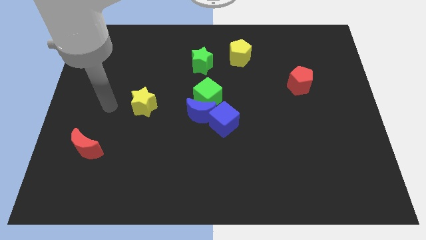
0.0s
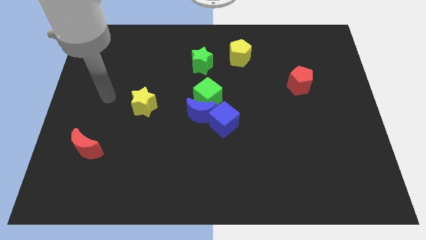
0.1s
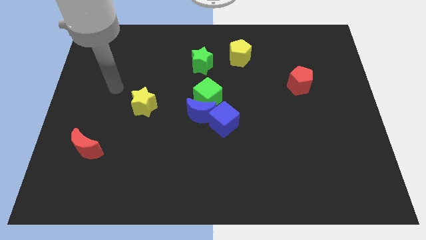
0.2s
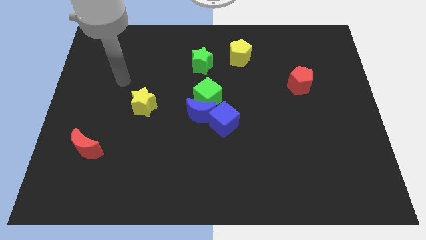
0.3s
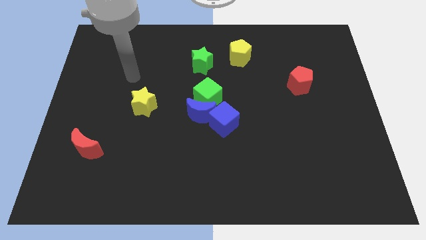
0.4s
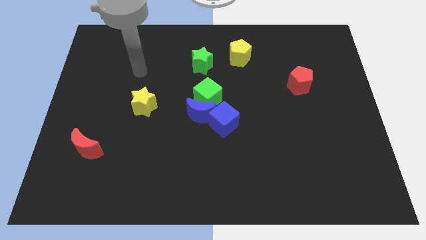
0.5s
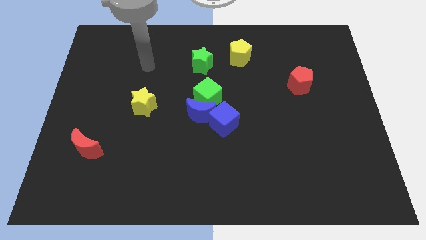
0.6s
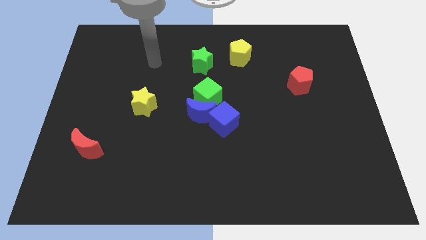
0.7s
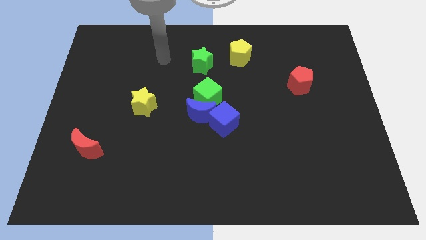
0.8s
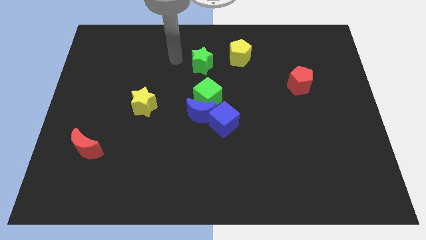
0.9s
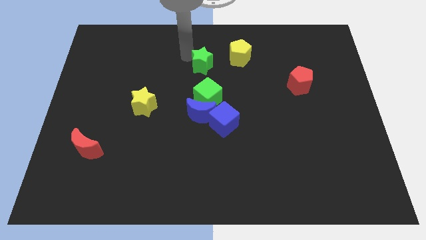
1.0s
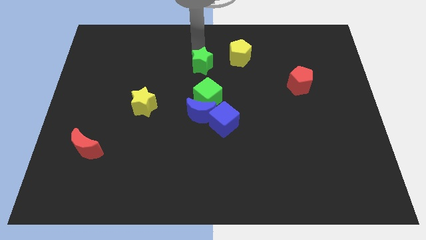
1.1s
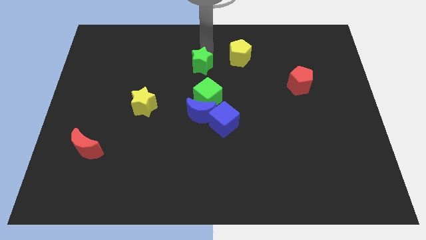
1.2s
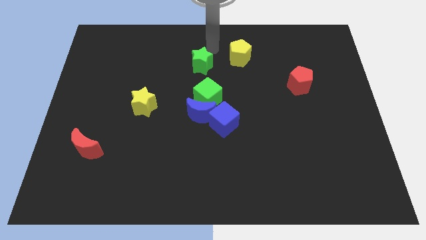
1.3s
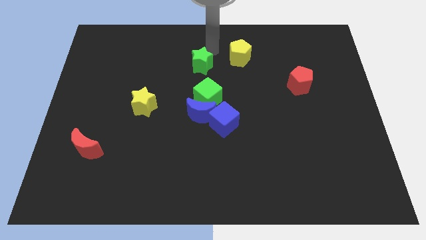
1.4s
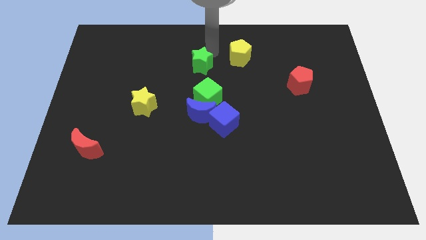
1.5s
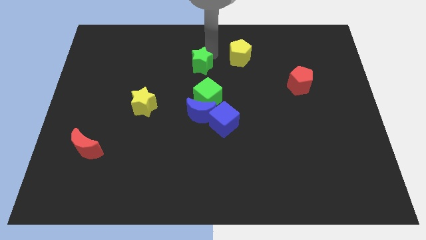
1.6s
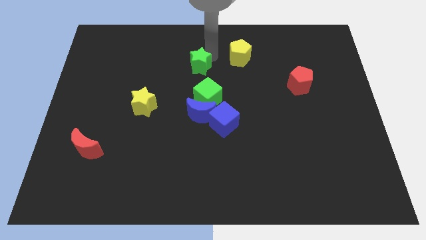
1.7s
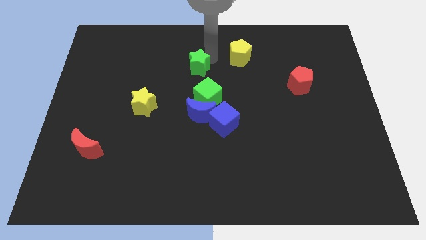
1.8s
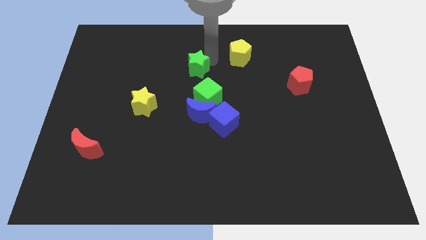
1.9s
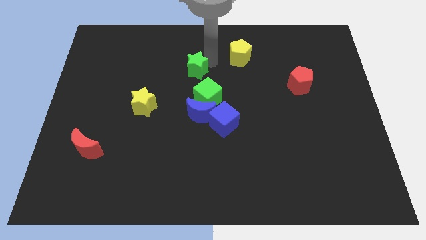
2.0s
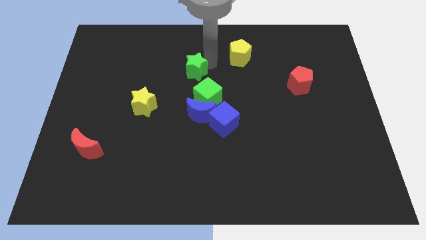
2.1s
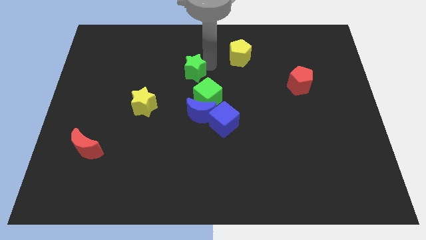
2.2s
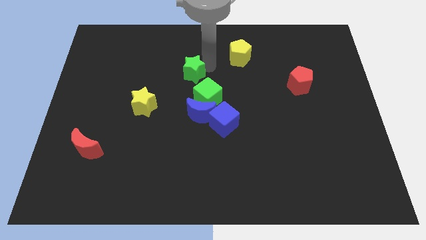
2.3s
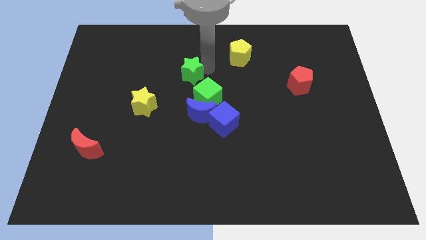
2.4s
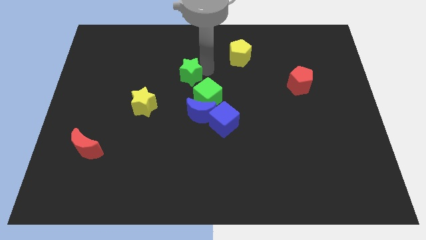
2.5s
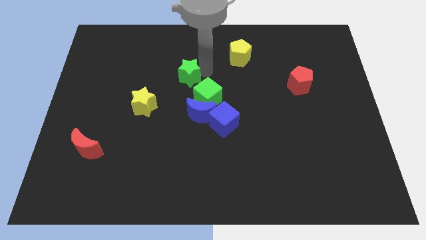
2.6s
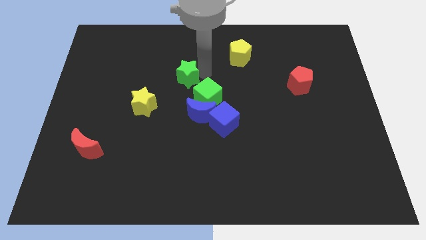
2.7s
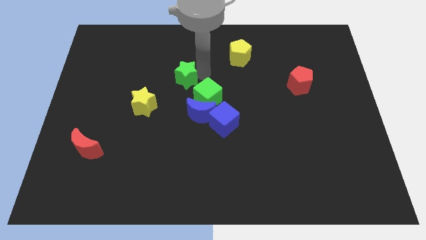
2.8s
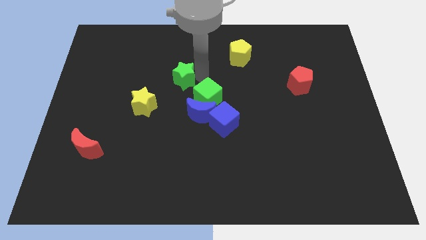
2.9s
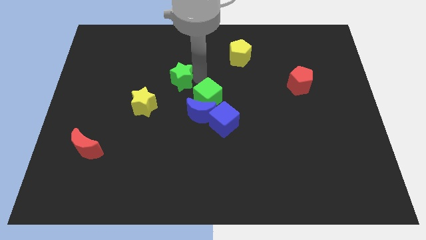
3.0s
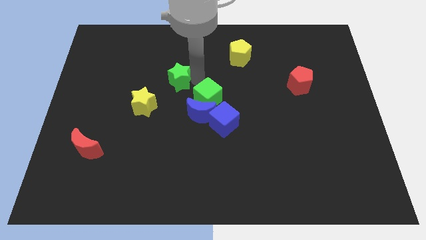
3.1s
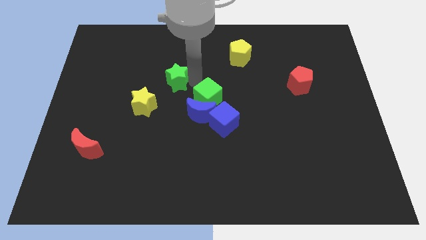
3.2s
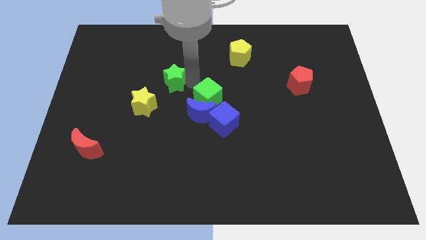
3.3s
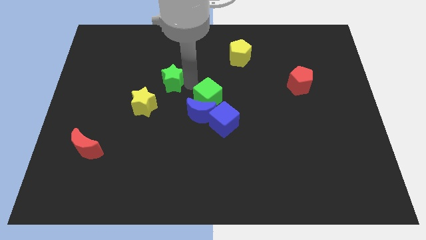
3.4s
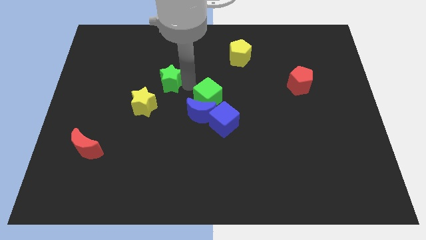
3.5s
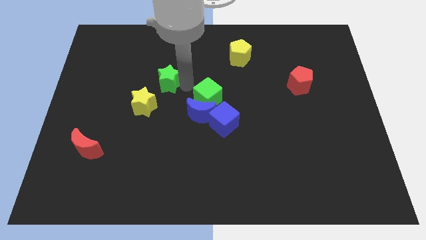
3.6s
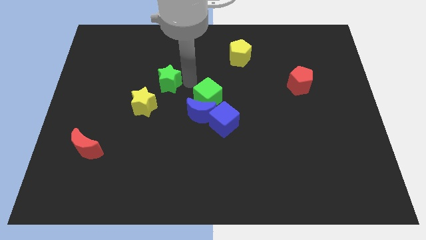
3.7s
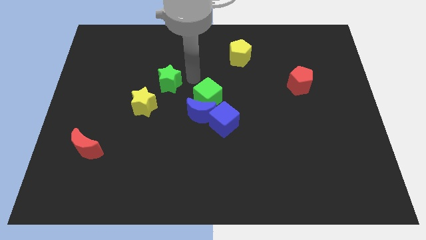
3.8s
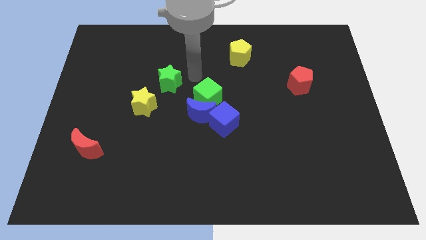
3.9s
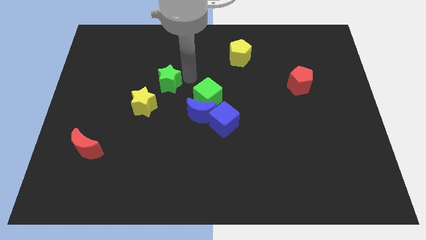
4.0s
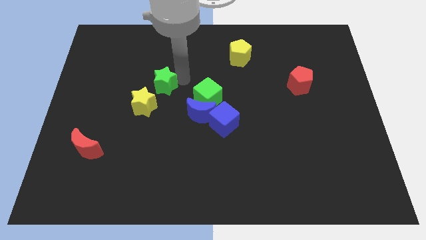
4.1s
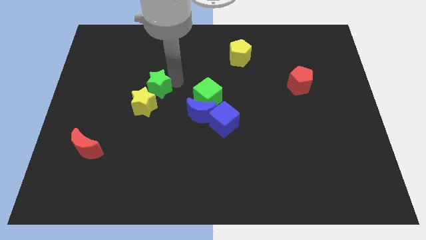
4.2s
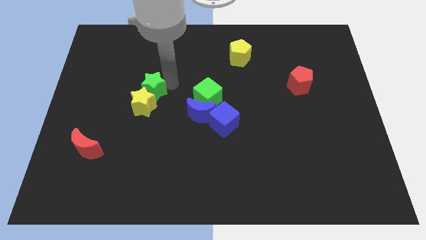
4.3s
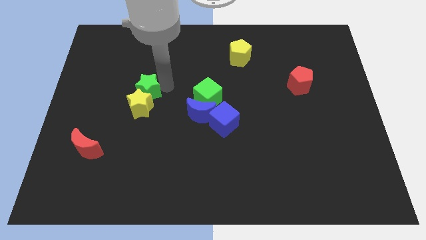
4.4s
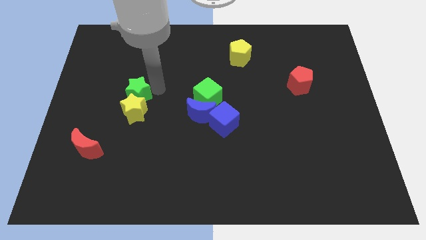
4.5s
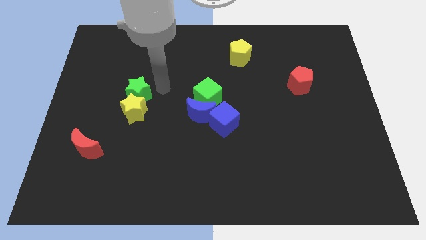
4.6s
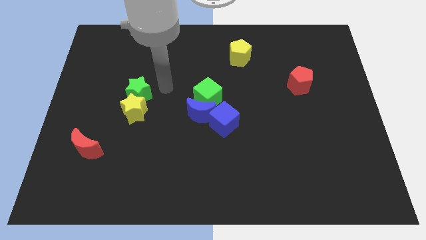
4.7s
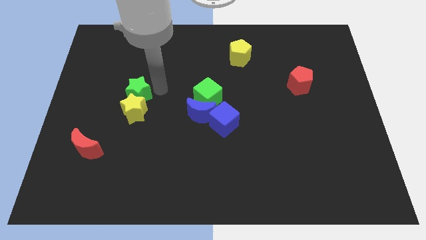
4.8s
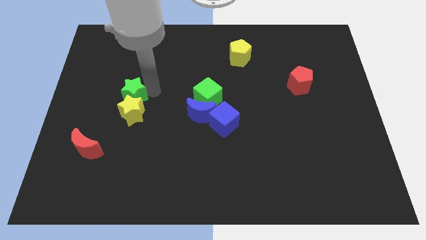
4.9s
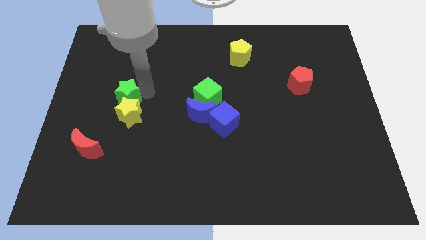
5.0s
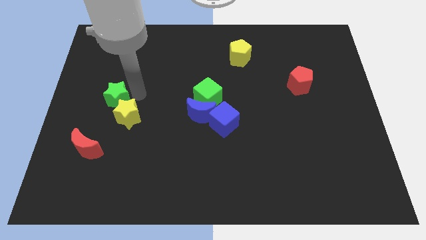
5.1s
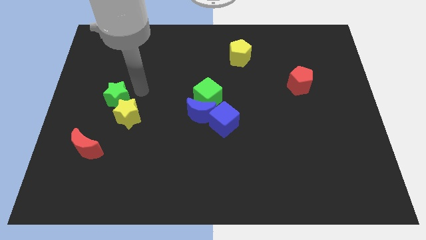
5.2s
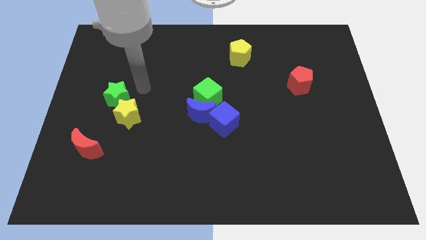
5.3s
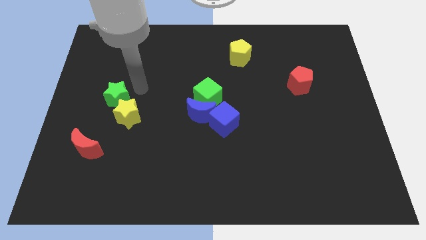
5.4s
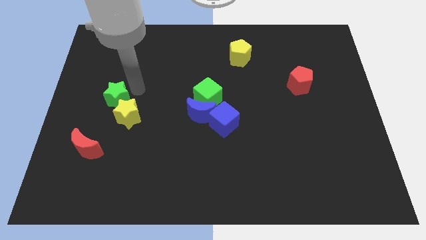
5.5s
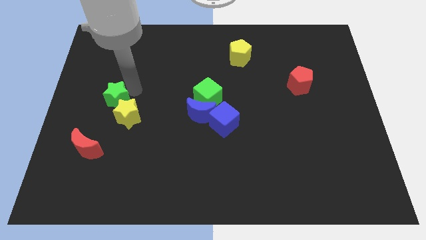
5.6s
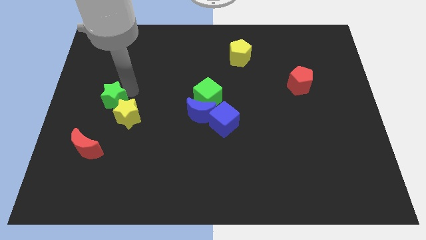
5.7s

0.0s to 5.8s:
push the green star to the top of the red moon

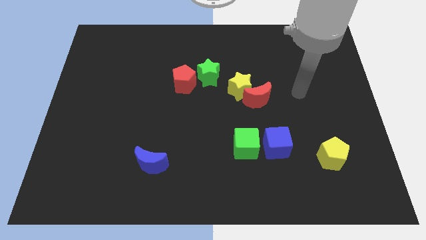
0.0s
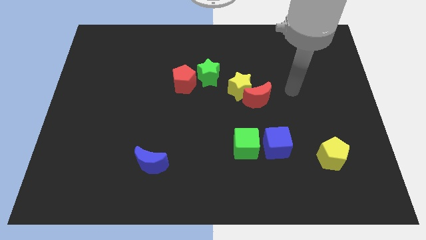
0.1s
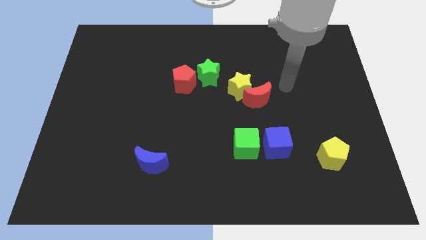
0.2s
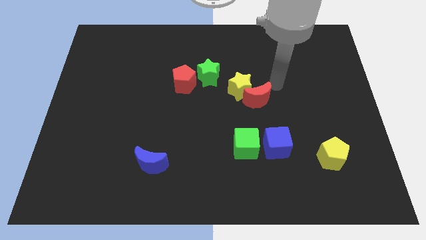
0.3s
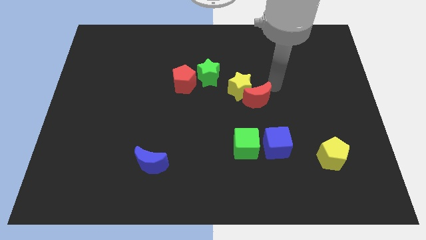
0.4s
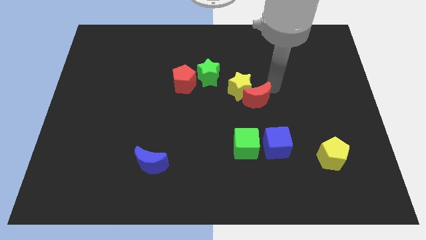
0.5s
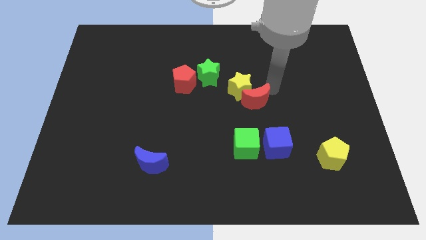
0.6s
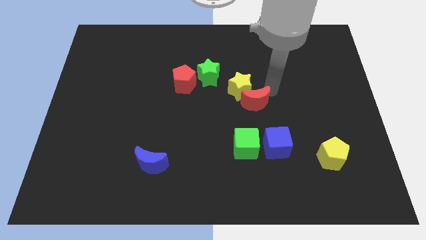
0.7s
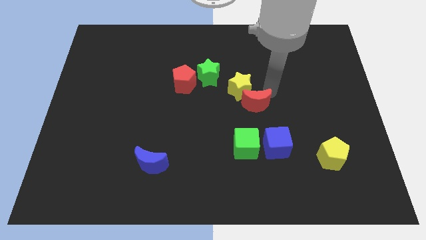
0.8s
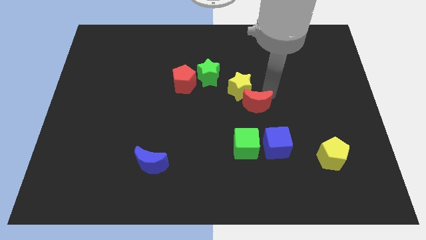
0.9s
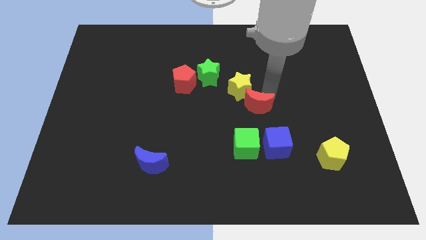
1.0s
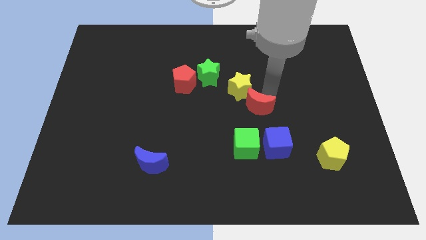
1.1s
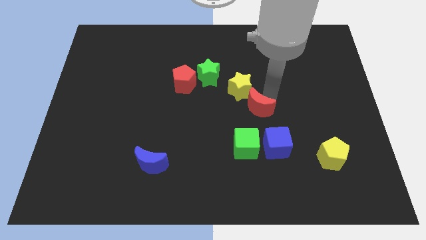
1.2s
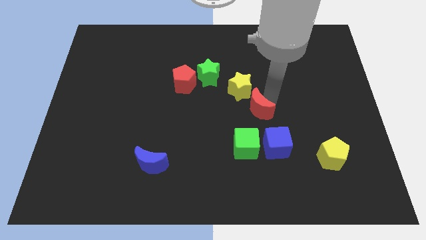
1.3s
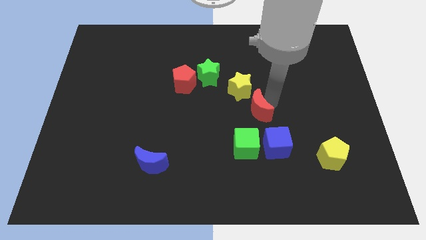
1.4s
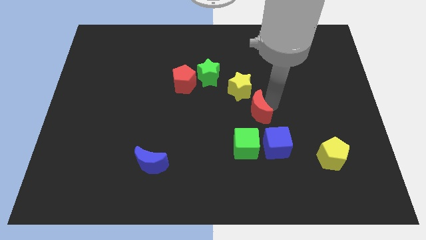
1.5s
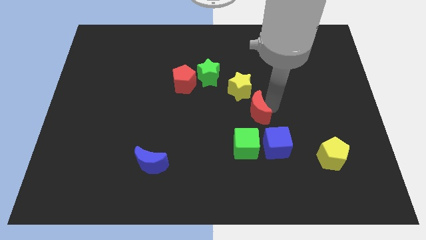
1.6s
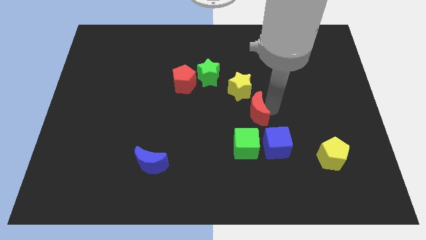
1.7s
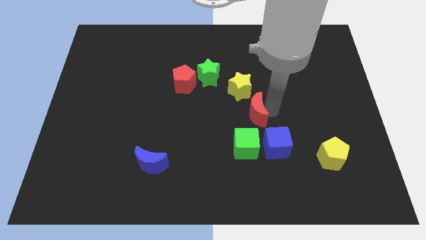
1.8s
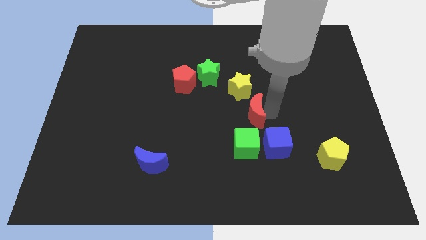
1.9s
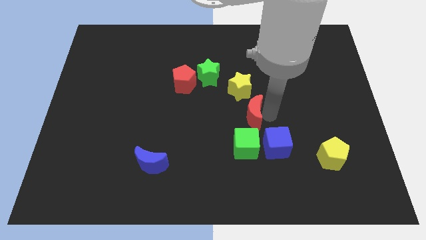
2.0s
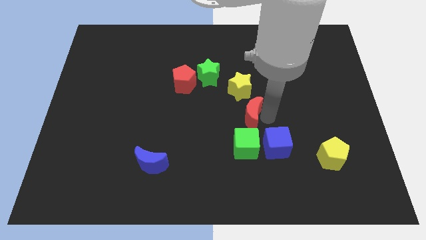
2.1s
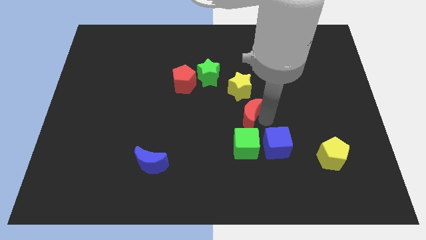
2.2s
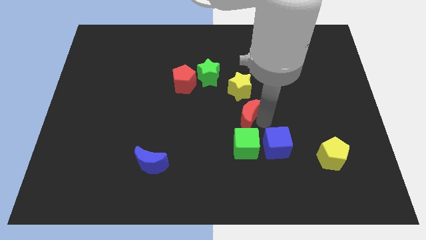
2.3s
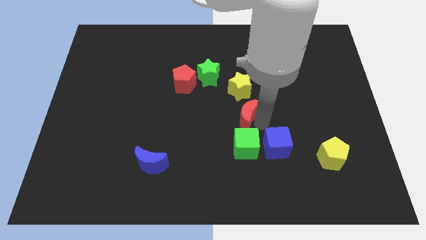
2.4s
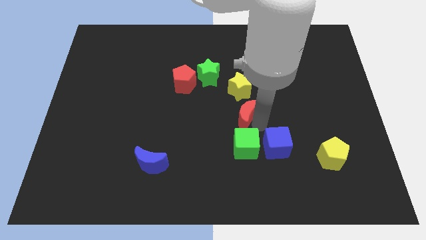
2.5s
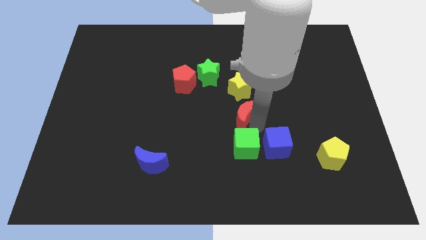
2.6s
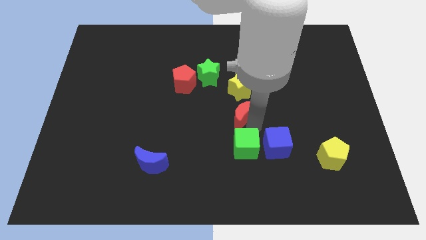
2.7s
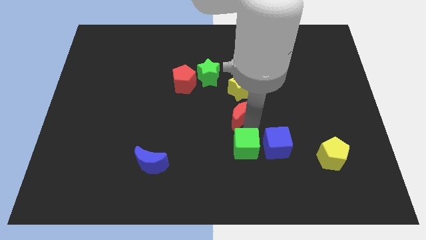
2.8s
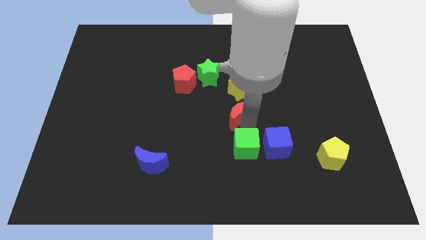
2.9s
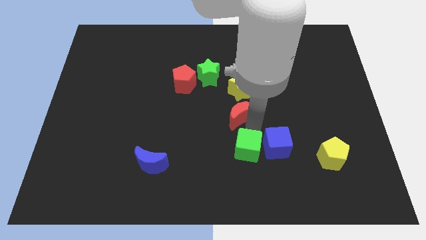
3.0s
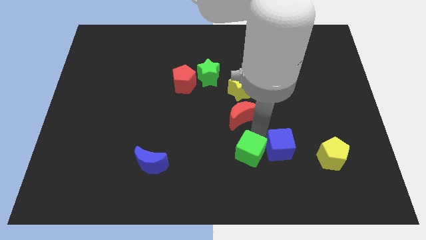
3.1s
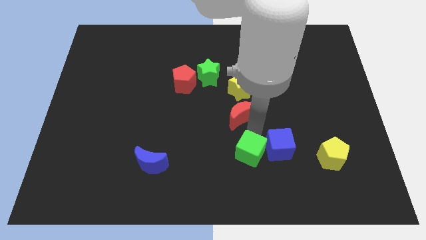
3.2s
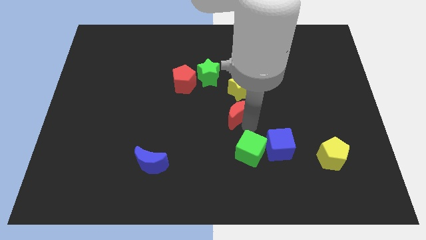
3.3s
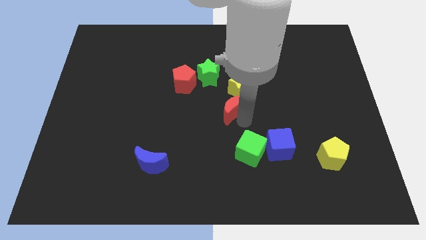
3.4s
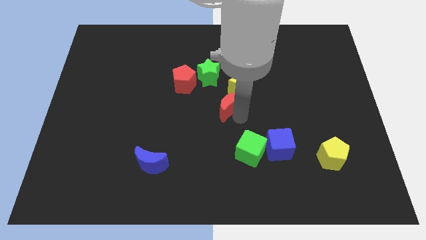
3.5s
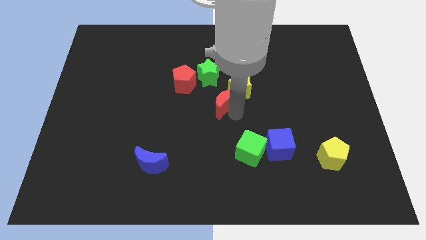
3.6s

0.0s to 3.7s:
put the red moon diagonally down and to the right of the red pentagon
